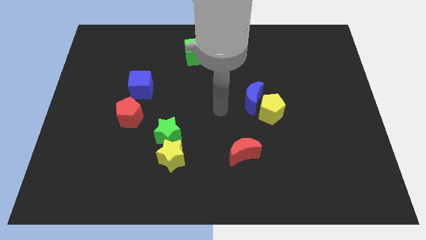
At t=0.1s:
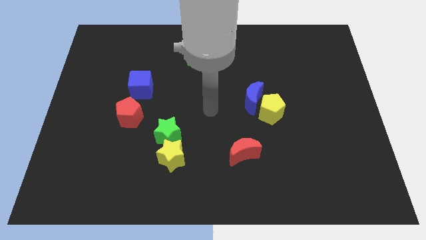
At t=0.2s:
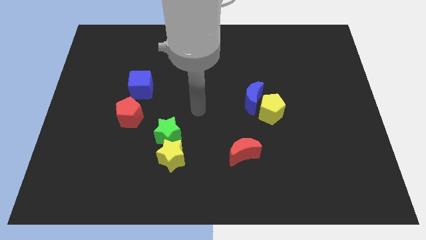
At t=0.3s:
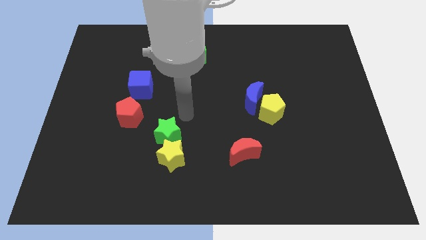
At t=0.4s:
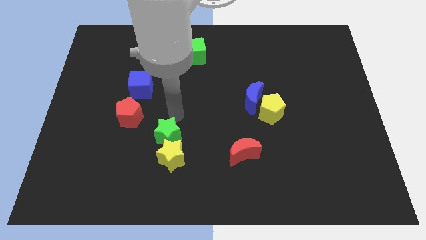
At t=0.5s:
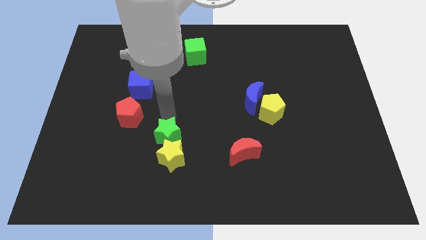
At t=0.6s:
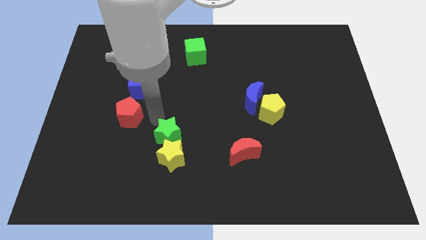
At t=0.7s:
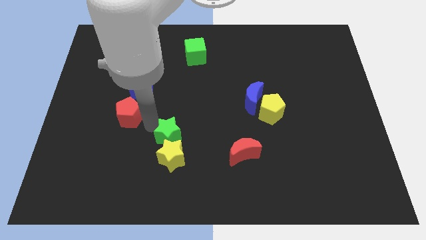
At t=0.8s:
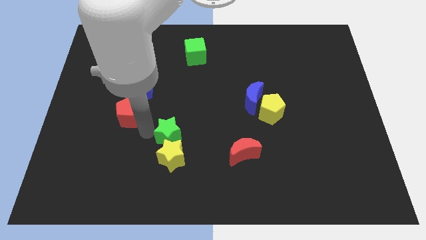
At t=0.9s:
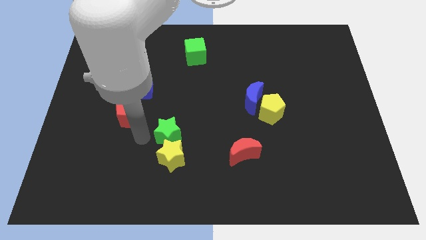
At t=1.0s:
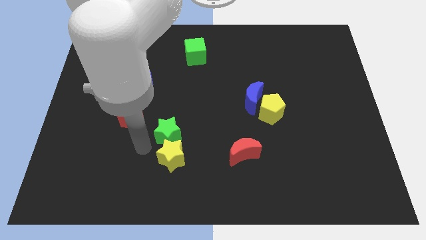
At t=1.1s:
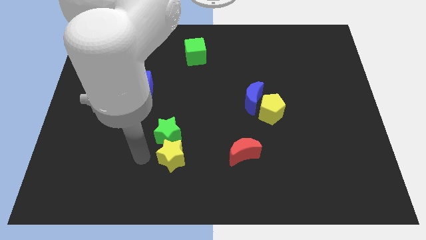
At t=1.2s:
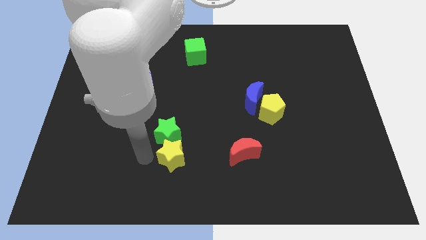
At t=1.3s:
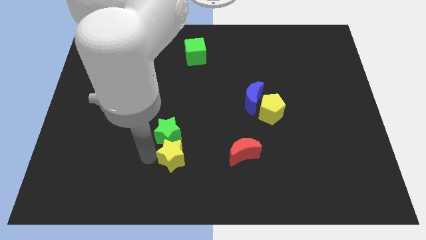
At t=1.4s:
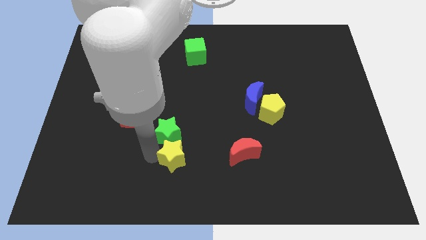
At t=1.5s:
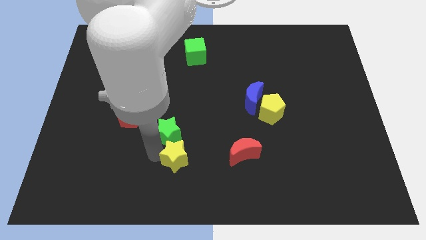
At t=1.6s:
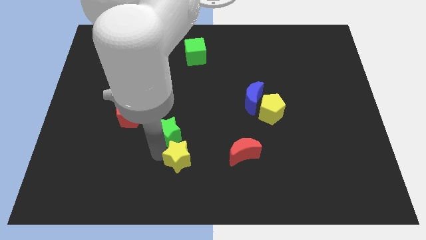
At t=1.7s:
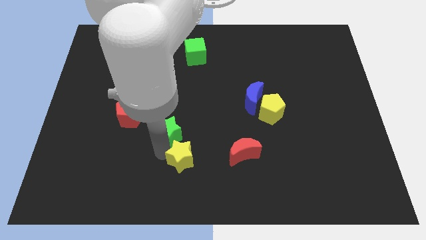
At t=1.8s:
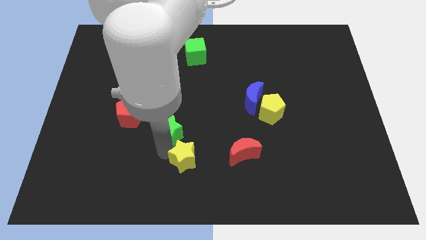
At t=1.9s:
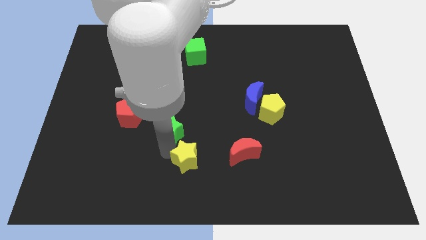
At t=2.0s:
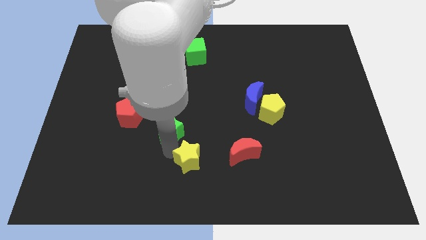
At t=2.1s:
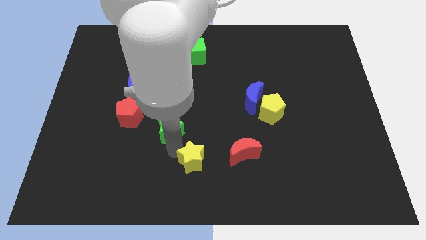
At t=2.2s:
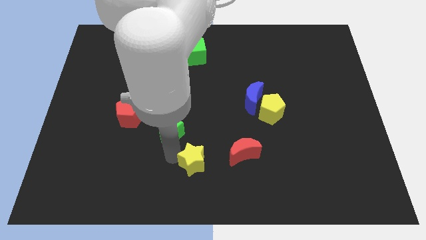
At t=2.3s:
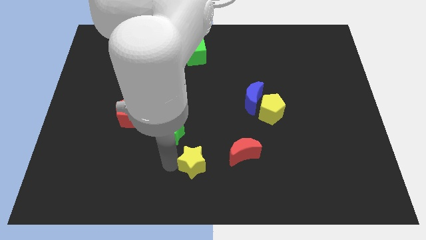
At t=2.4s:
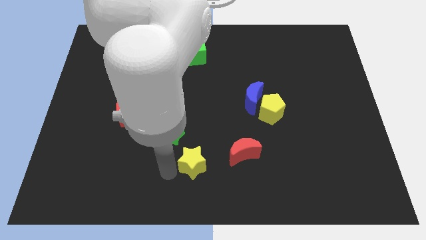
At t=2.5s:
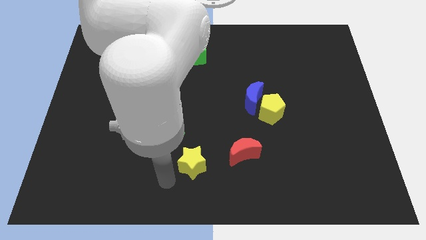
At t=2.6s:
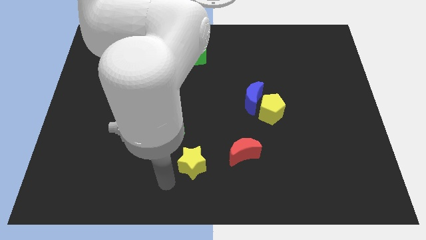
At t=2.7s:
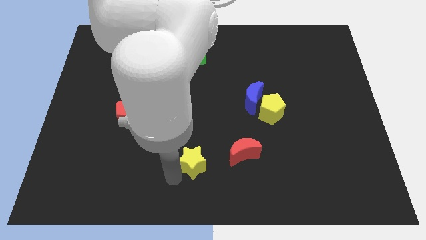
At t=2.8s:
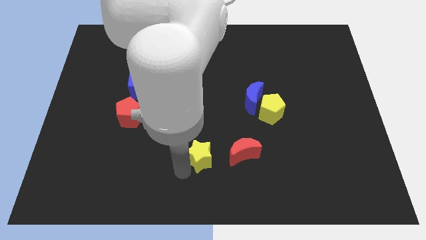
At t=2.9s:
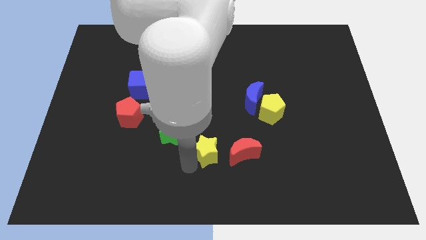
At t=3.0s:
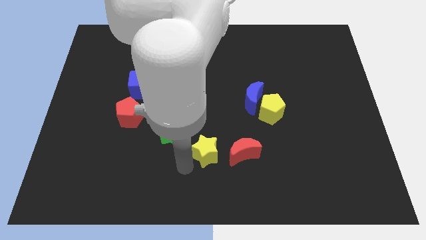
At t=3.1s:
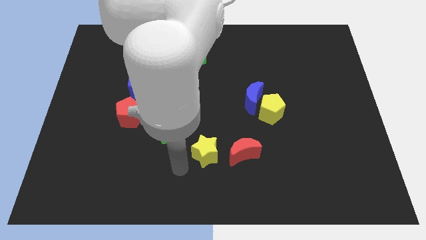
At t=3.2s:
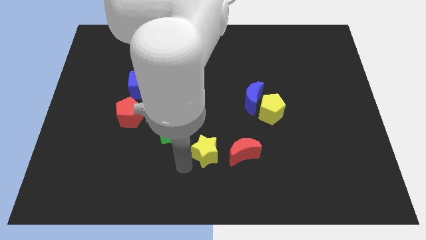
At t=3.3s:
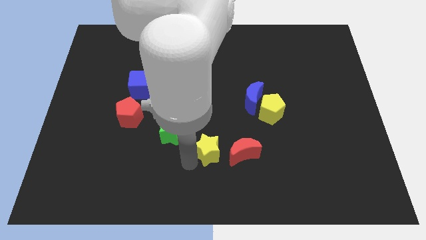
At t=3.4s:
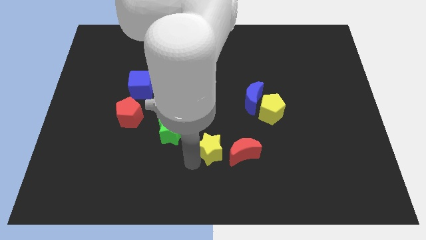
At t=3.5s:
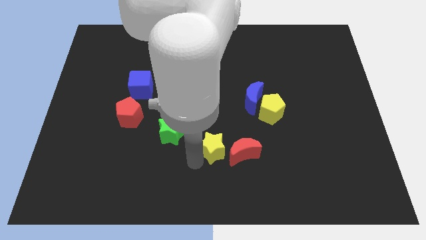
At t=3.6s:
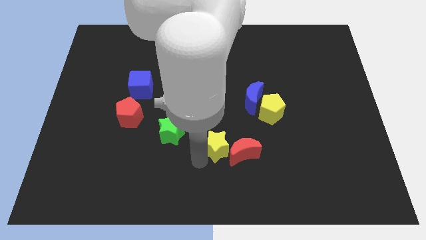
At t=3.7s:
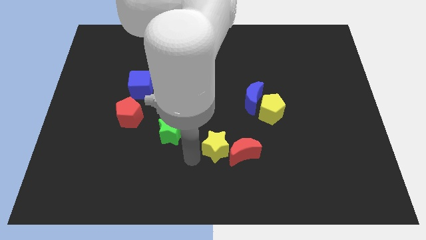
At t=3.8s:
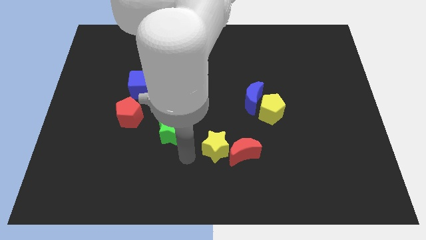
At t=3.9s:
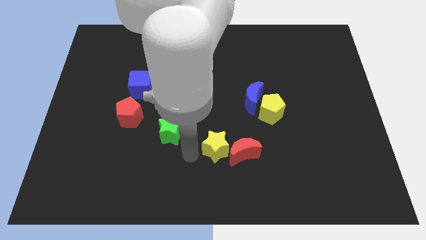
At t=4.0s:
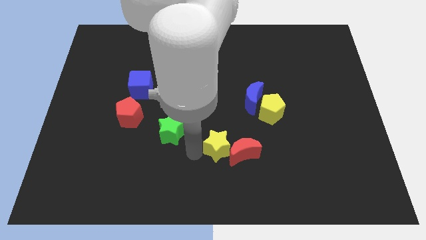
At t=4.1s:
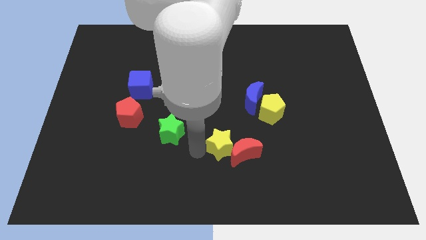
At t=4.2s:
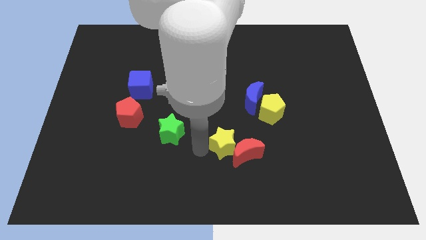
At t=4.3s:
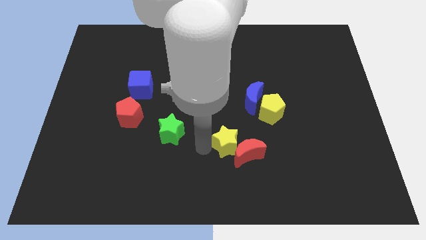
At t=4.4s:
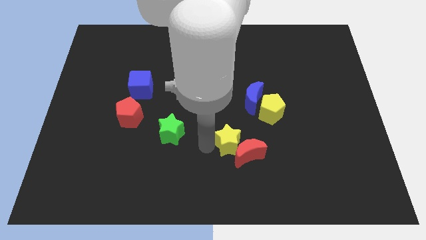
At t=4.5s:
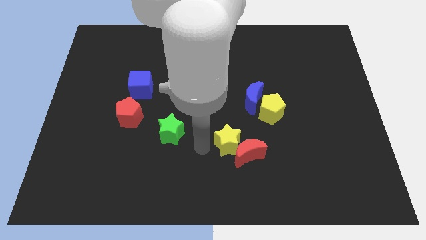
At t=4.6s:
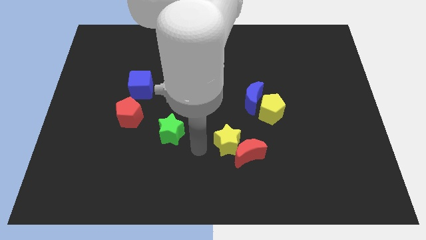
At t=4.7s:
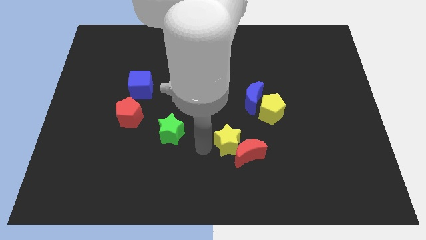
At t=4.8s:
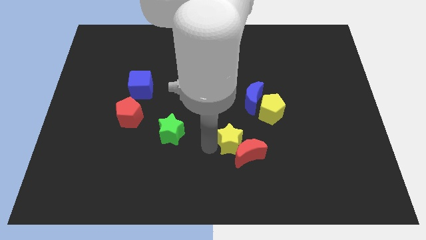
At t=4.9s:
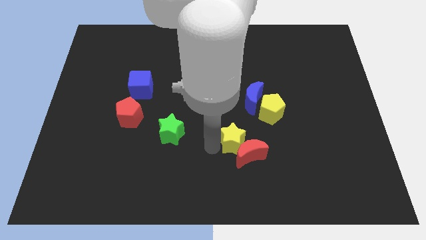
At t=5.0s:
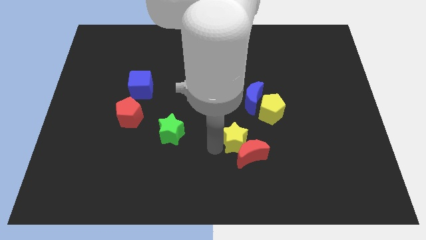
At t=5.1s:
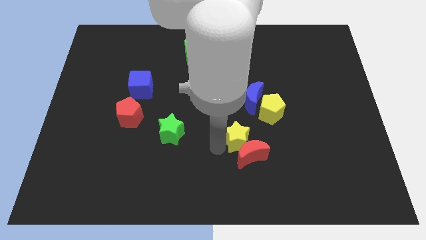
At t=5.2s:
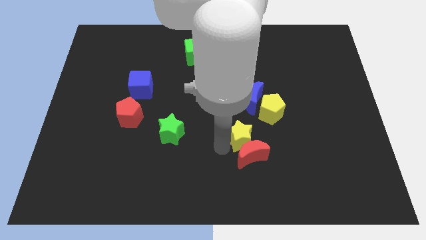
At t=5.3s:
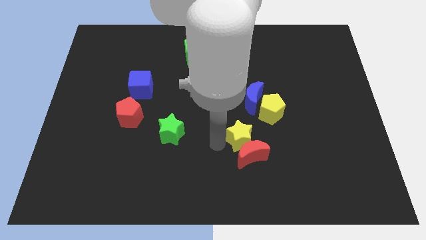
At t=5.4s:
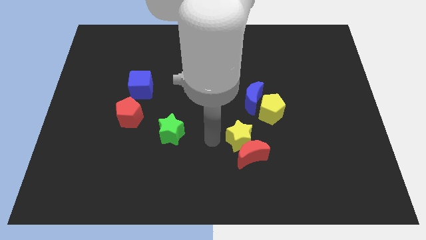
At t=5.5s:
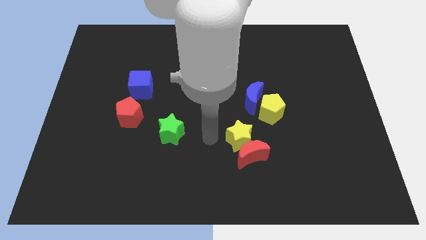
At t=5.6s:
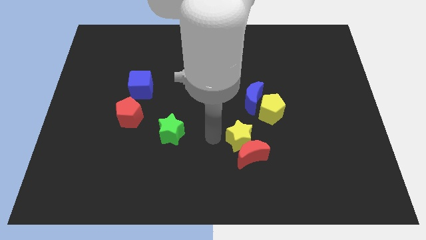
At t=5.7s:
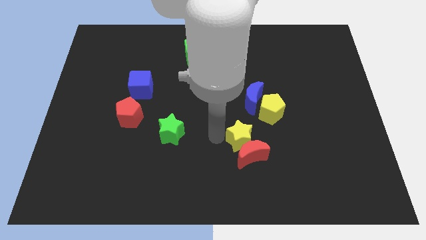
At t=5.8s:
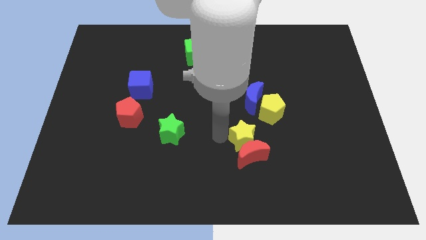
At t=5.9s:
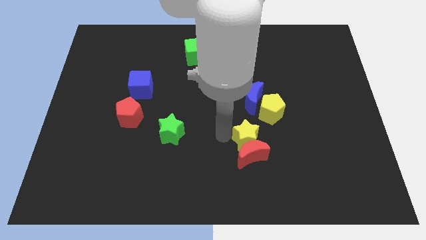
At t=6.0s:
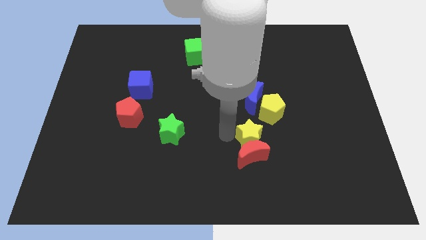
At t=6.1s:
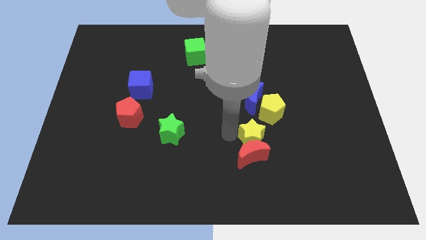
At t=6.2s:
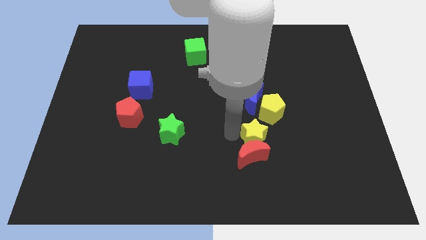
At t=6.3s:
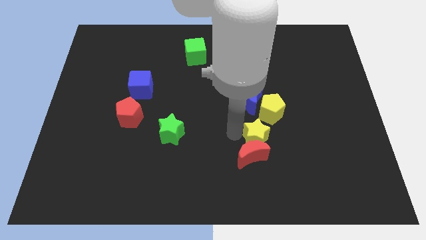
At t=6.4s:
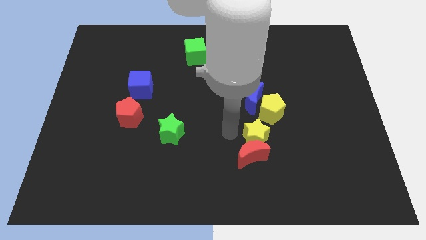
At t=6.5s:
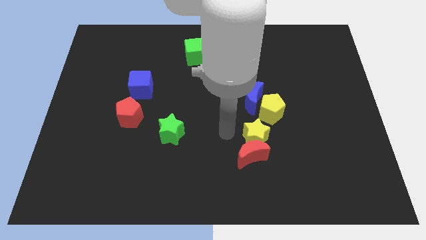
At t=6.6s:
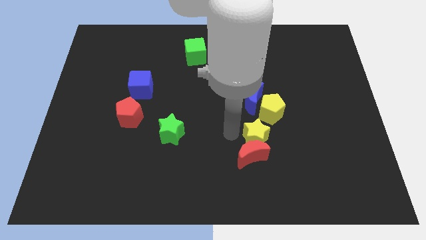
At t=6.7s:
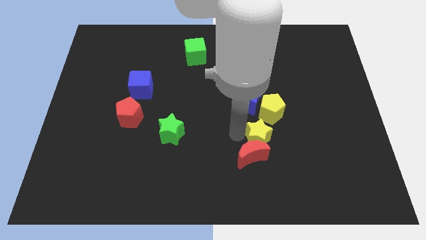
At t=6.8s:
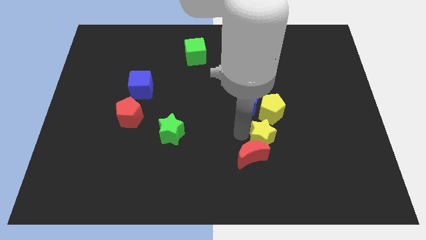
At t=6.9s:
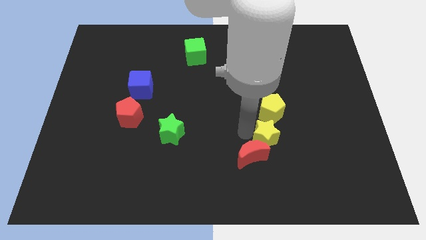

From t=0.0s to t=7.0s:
put the yellow star to the right of the red moon

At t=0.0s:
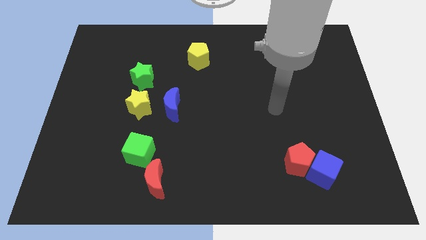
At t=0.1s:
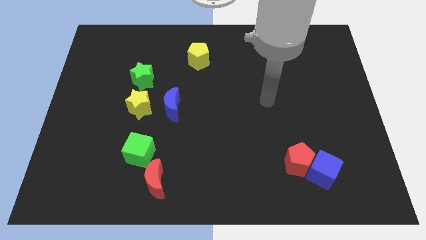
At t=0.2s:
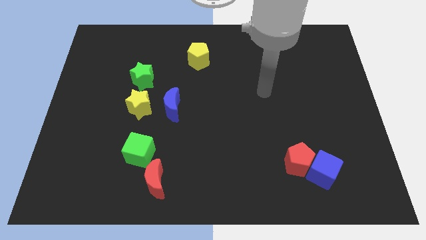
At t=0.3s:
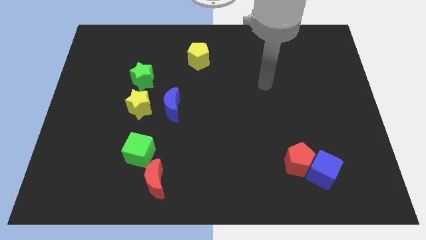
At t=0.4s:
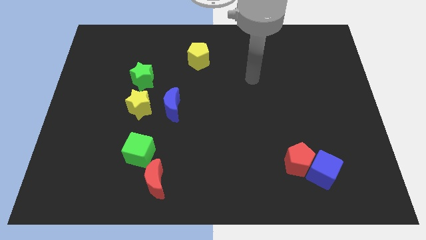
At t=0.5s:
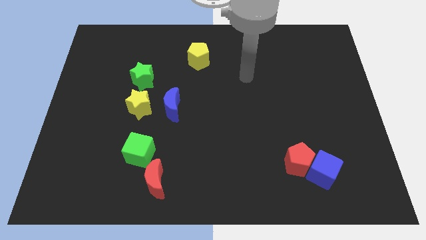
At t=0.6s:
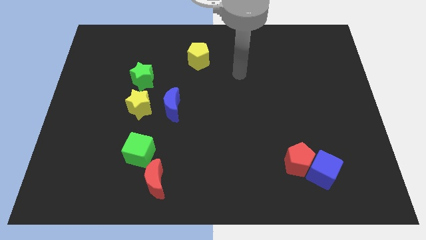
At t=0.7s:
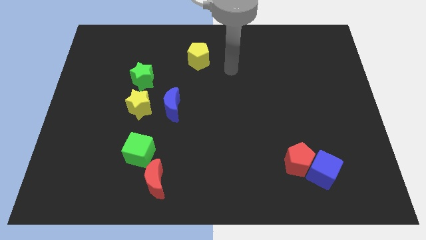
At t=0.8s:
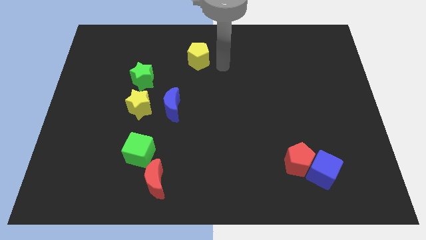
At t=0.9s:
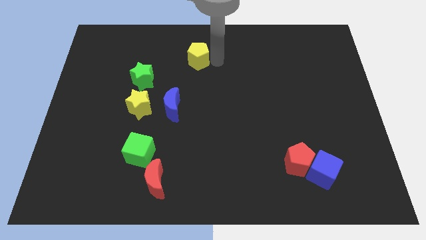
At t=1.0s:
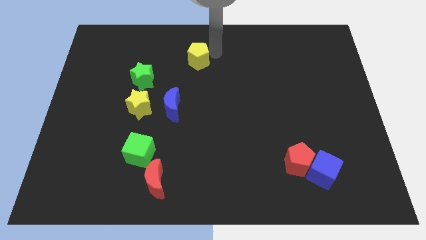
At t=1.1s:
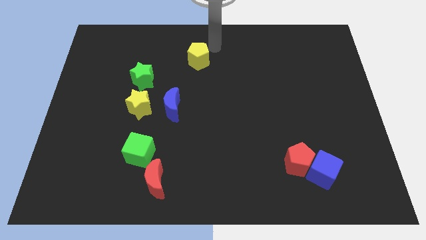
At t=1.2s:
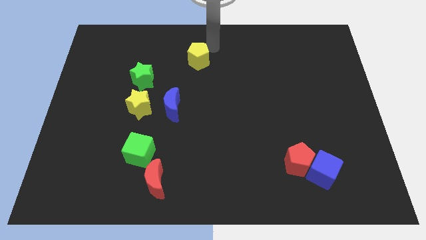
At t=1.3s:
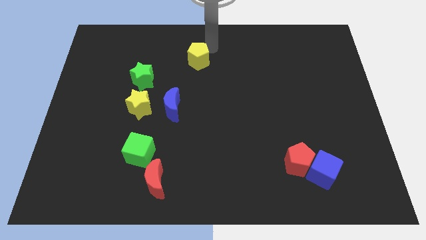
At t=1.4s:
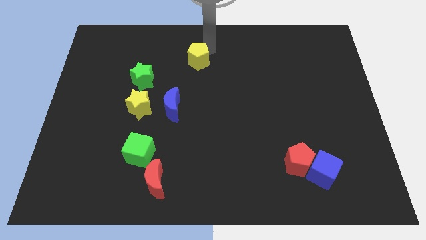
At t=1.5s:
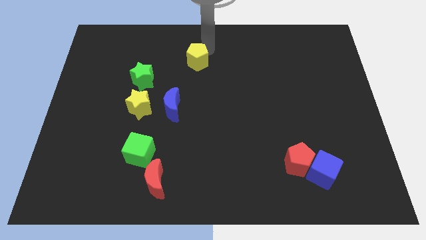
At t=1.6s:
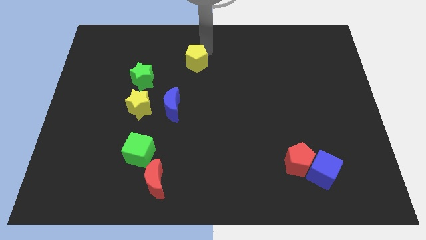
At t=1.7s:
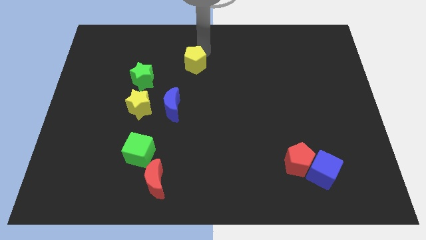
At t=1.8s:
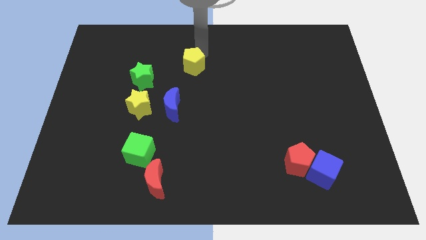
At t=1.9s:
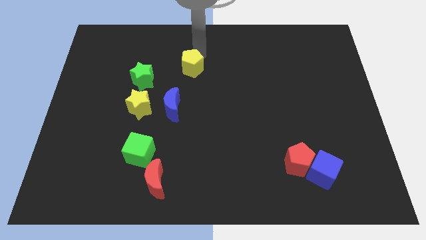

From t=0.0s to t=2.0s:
slide the yellow pentagon to the top of the blue moon
